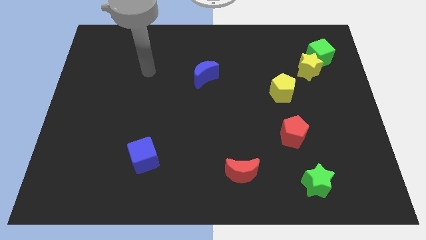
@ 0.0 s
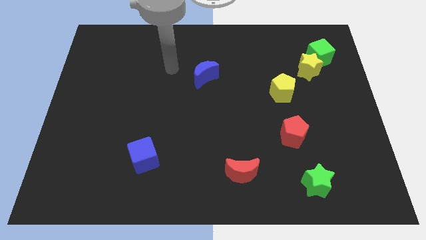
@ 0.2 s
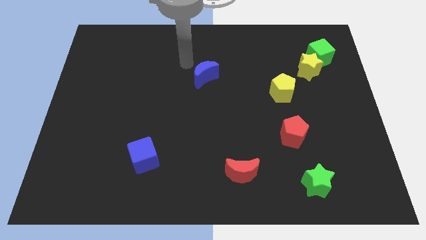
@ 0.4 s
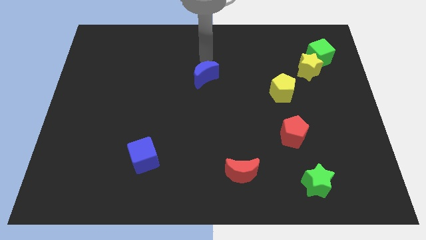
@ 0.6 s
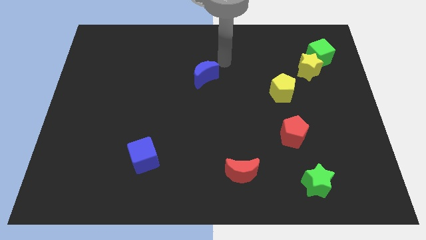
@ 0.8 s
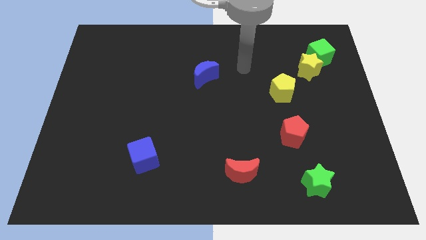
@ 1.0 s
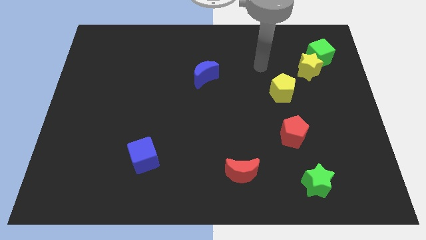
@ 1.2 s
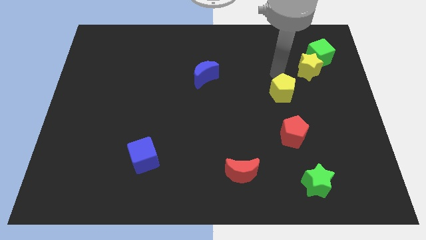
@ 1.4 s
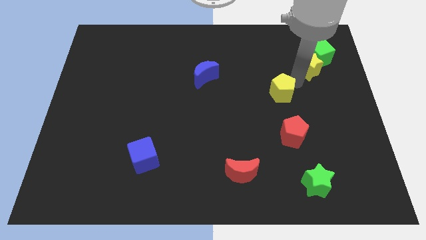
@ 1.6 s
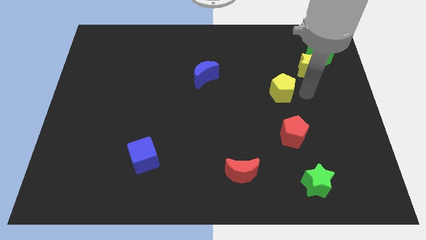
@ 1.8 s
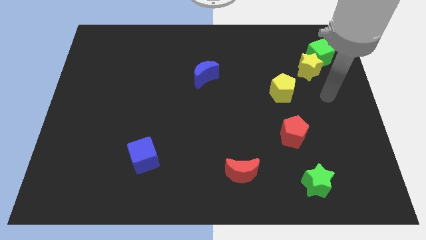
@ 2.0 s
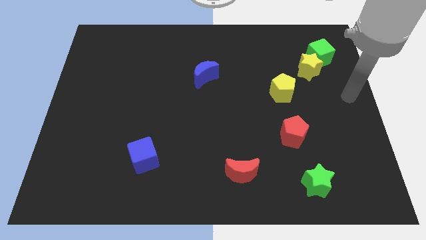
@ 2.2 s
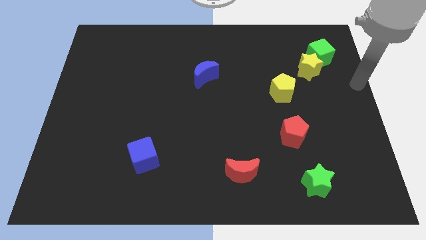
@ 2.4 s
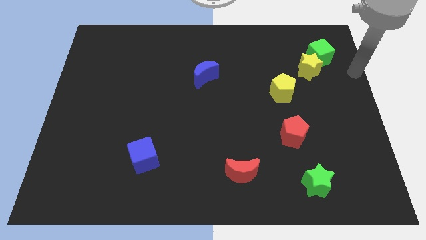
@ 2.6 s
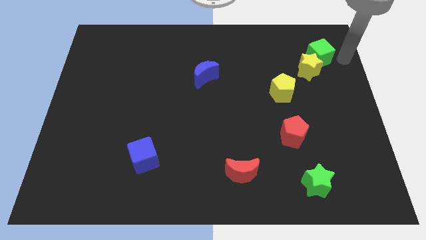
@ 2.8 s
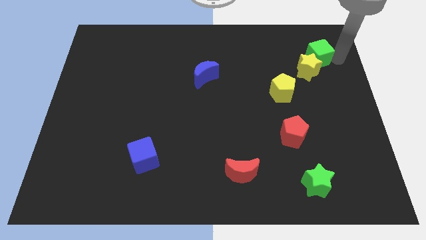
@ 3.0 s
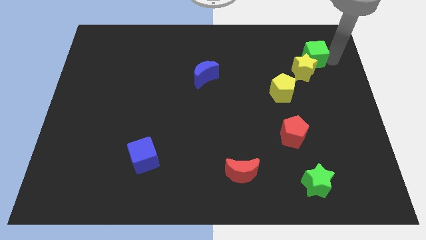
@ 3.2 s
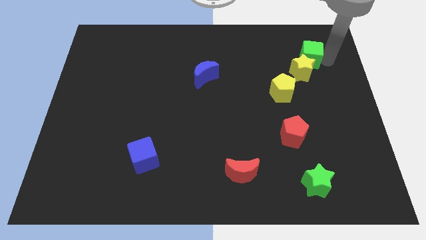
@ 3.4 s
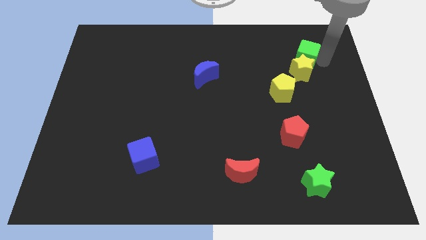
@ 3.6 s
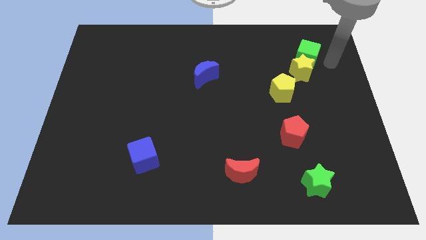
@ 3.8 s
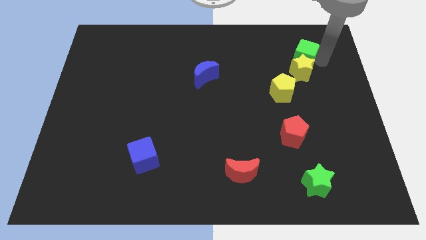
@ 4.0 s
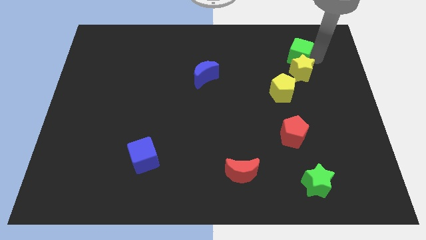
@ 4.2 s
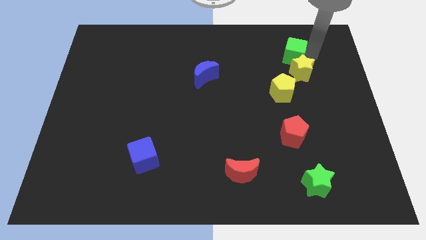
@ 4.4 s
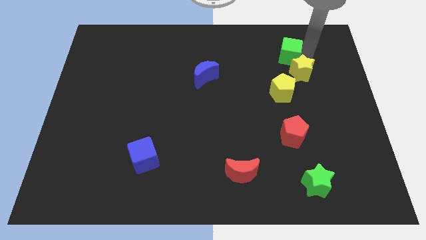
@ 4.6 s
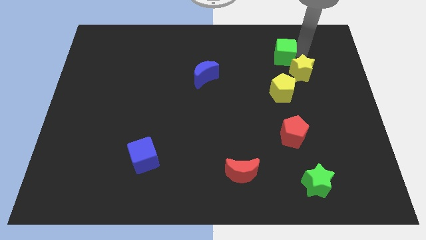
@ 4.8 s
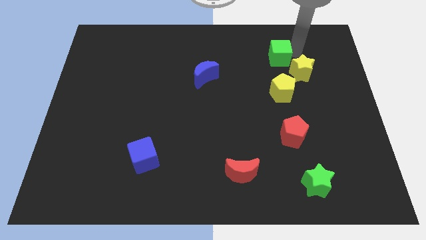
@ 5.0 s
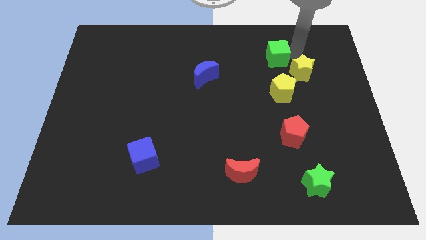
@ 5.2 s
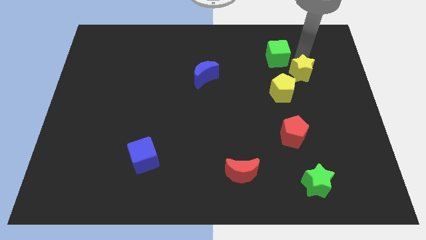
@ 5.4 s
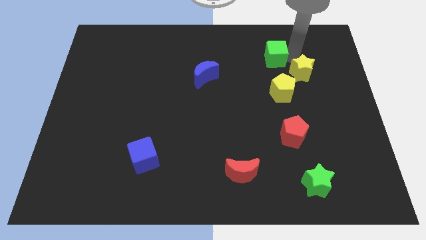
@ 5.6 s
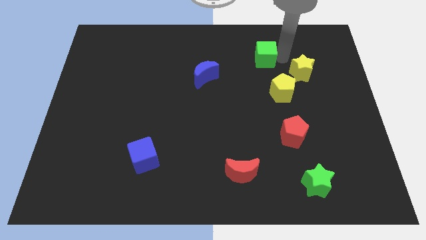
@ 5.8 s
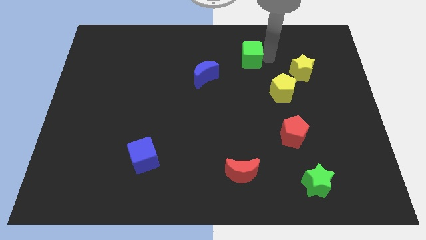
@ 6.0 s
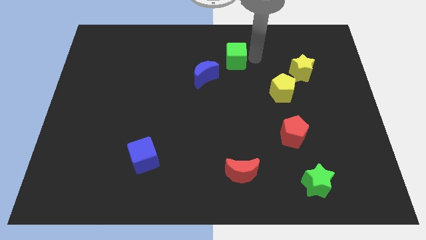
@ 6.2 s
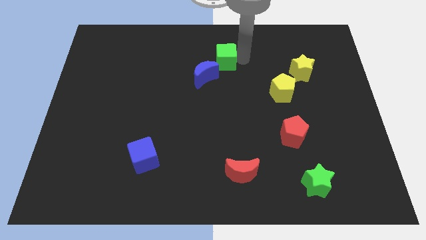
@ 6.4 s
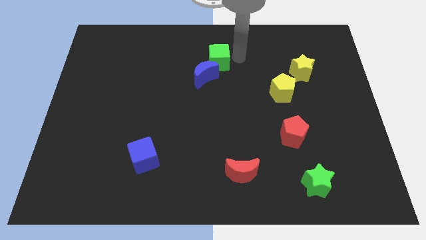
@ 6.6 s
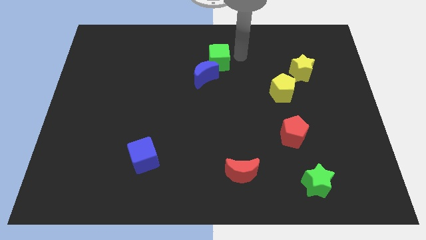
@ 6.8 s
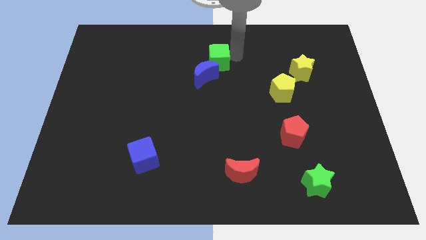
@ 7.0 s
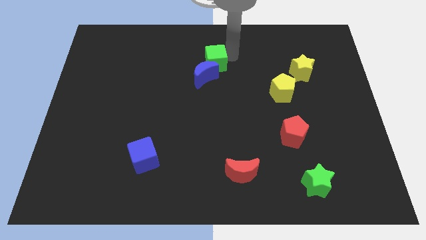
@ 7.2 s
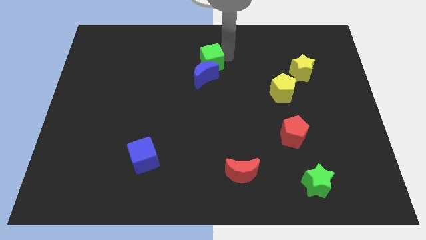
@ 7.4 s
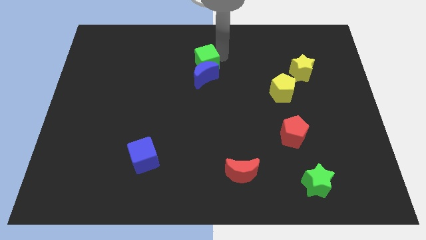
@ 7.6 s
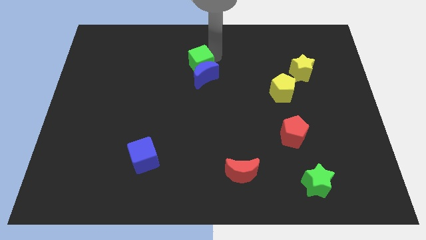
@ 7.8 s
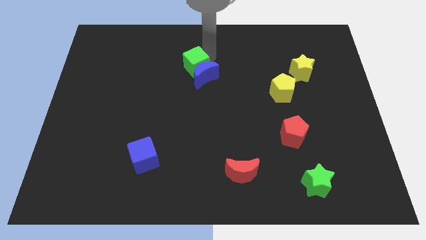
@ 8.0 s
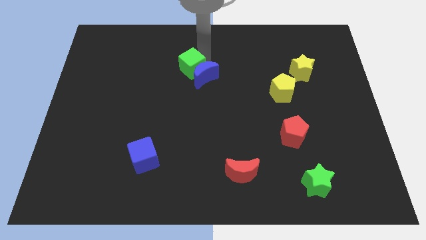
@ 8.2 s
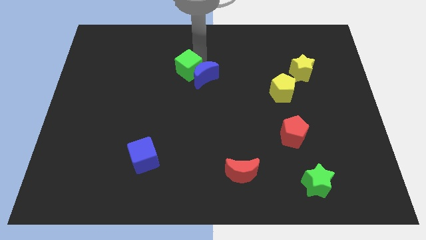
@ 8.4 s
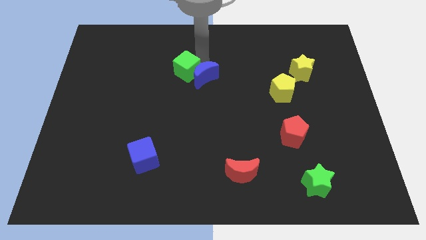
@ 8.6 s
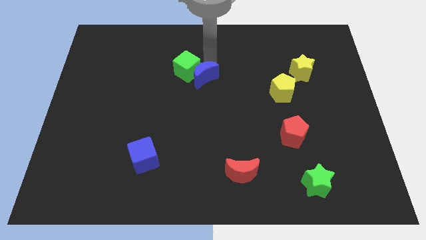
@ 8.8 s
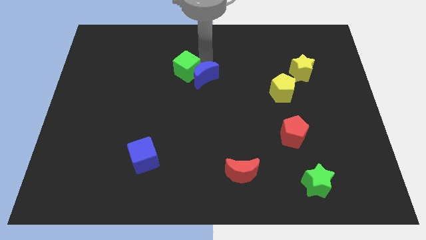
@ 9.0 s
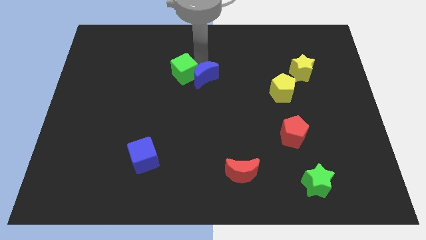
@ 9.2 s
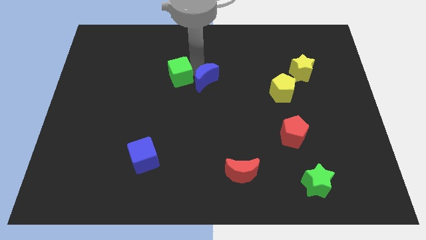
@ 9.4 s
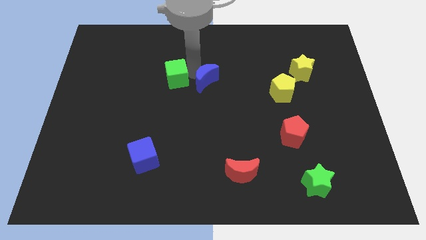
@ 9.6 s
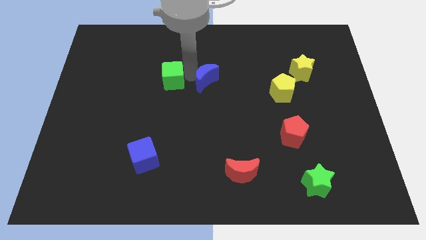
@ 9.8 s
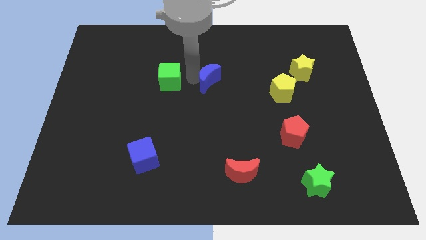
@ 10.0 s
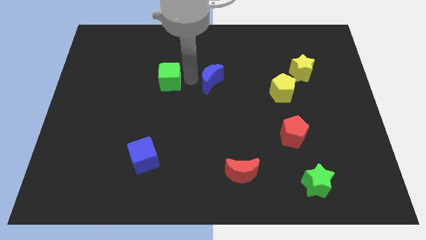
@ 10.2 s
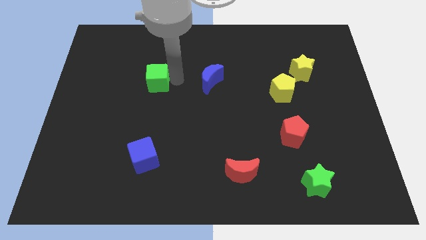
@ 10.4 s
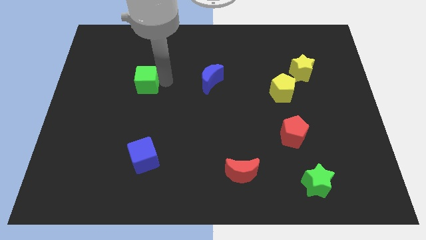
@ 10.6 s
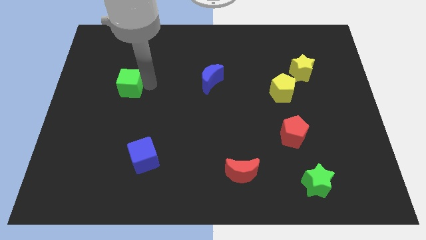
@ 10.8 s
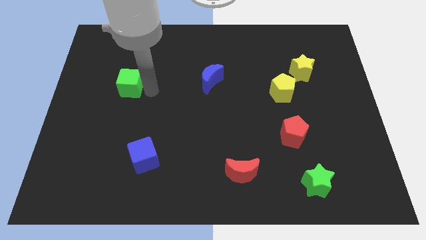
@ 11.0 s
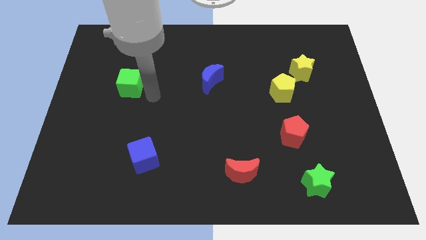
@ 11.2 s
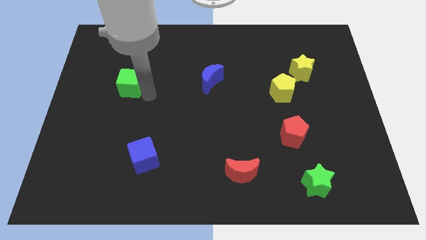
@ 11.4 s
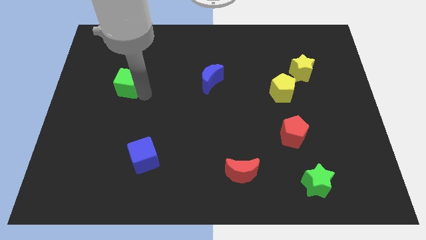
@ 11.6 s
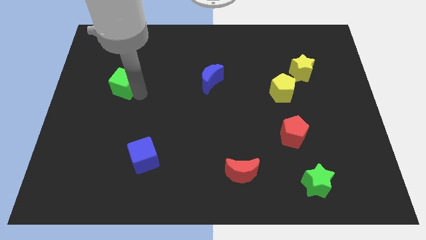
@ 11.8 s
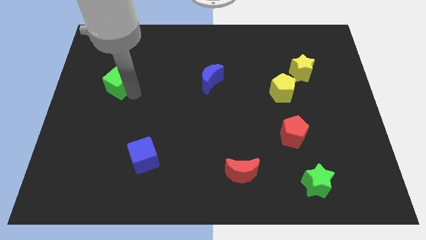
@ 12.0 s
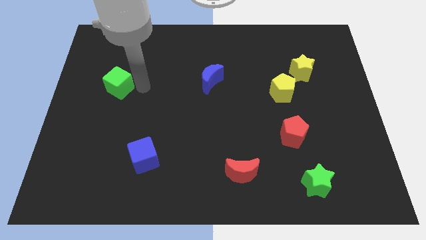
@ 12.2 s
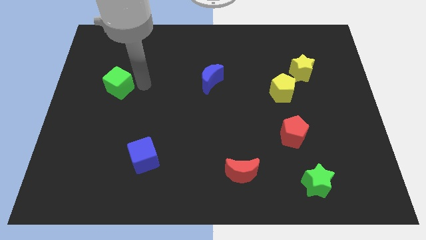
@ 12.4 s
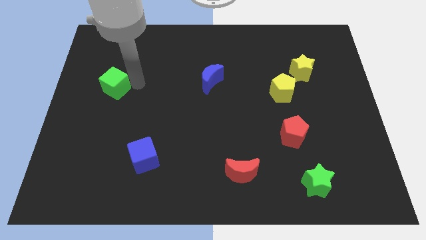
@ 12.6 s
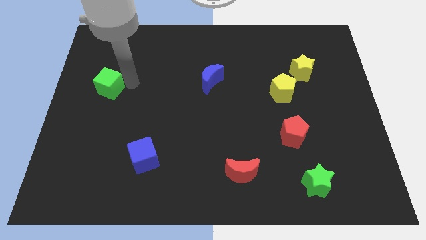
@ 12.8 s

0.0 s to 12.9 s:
put the green cube to the left side of the board
